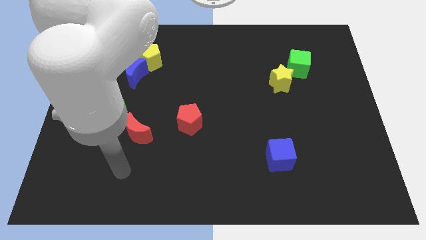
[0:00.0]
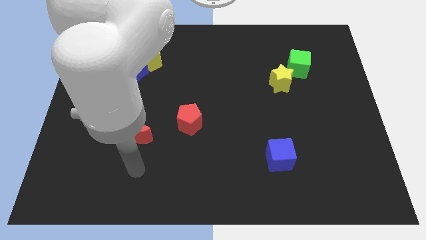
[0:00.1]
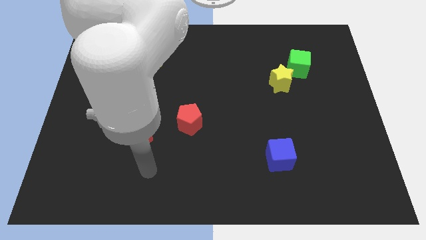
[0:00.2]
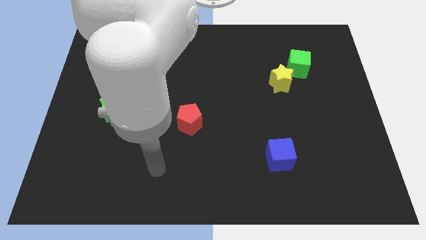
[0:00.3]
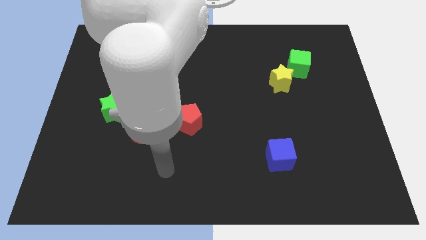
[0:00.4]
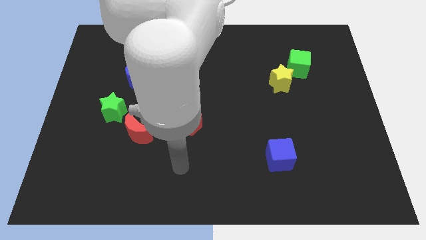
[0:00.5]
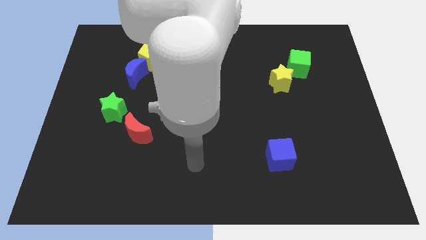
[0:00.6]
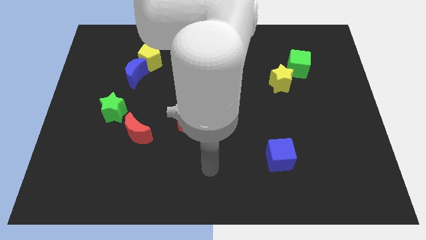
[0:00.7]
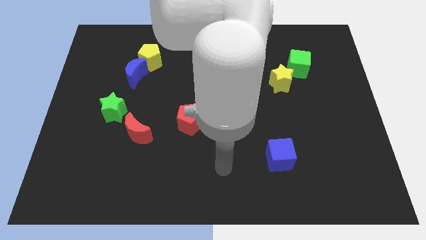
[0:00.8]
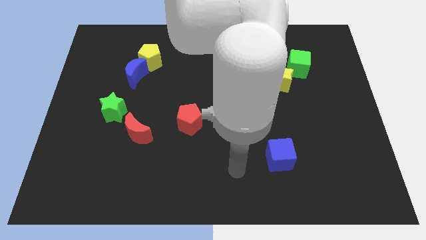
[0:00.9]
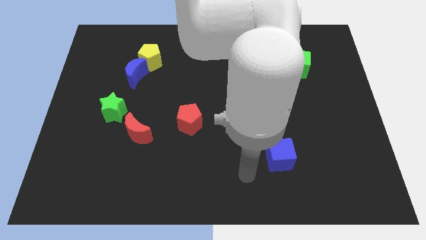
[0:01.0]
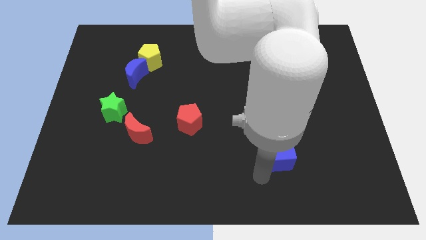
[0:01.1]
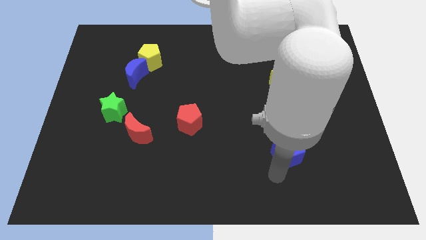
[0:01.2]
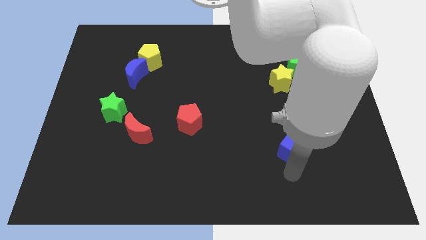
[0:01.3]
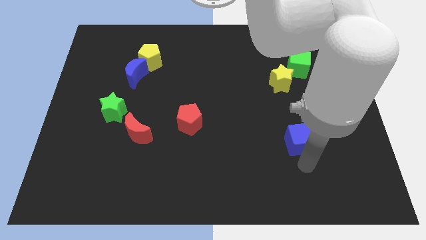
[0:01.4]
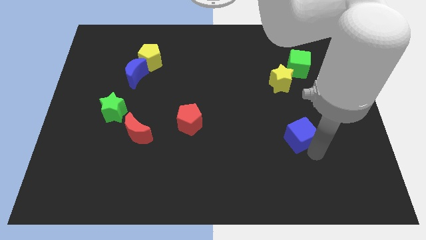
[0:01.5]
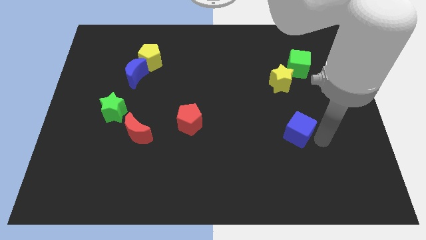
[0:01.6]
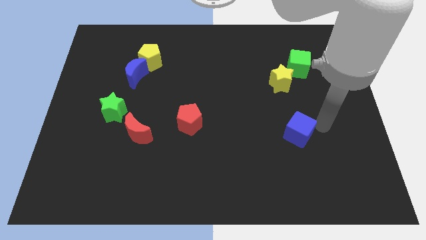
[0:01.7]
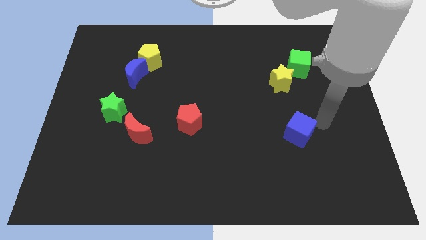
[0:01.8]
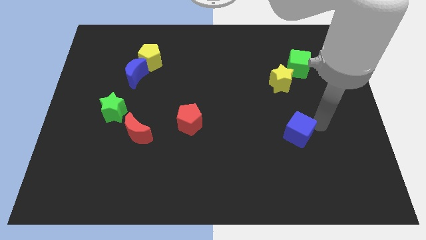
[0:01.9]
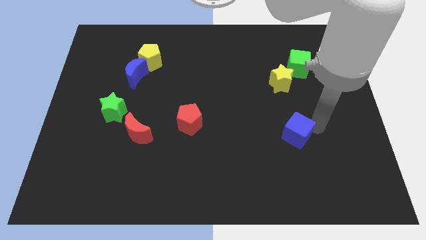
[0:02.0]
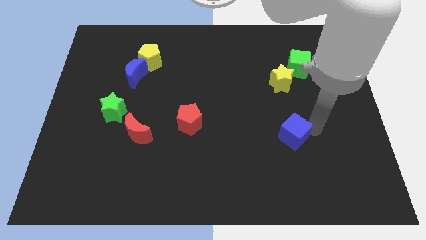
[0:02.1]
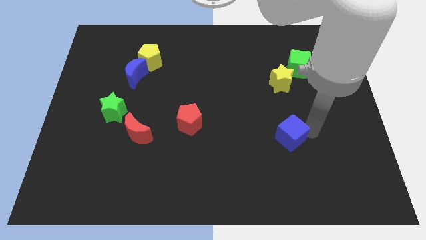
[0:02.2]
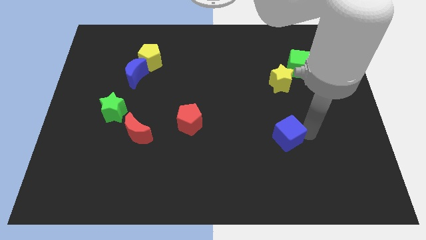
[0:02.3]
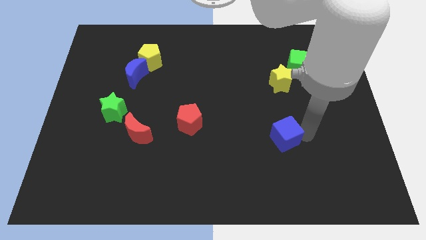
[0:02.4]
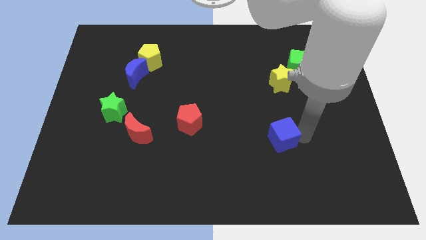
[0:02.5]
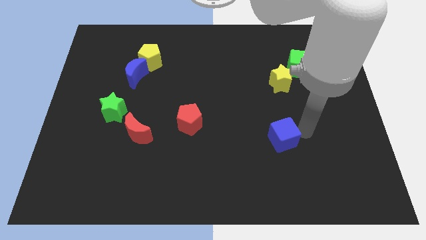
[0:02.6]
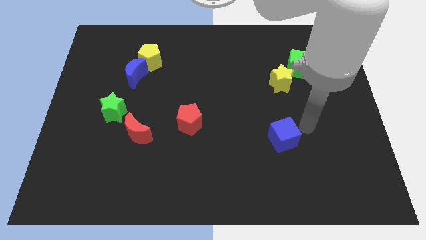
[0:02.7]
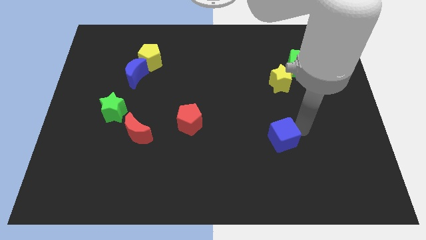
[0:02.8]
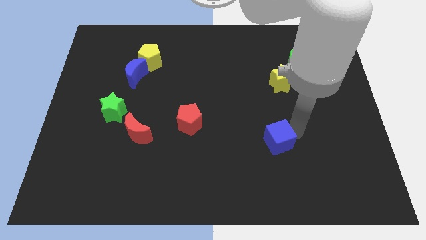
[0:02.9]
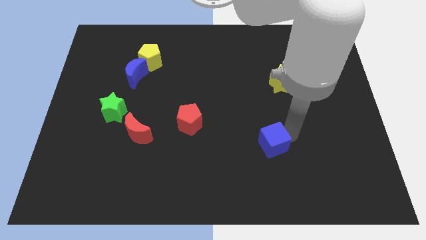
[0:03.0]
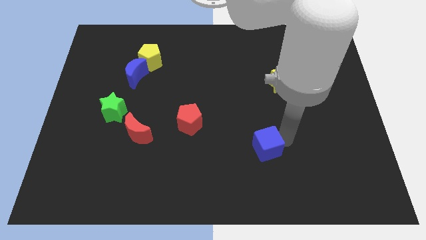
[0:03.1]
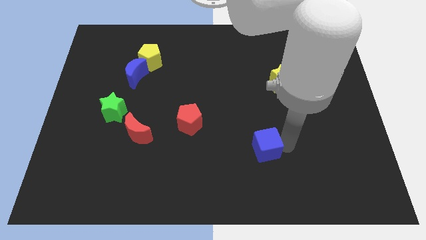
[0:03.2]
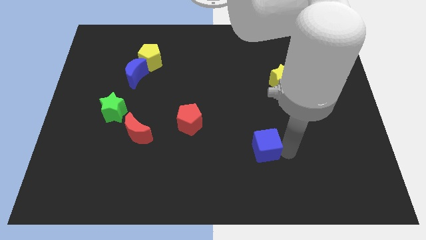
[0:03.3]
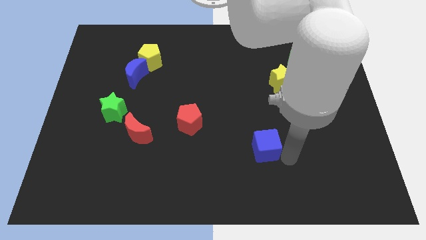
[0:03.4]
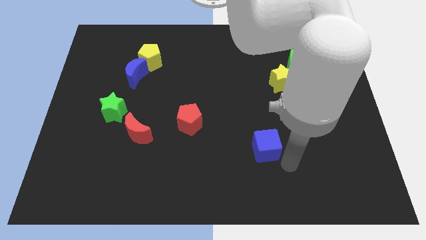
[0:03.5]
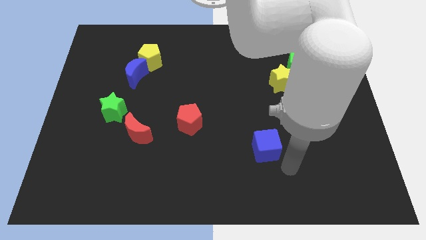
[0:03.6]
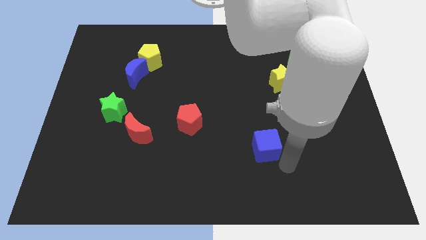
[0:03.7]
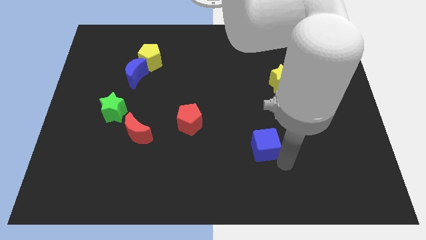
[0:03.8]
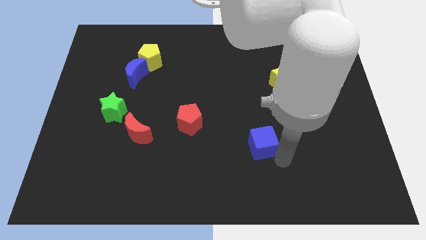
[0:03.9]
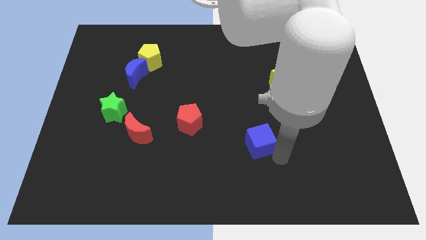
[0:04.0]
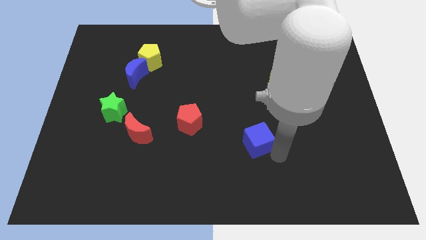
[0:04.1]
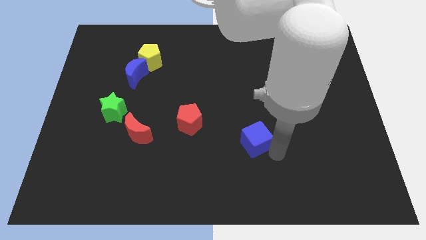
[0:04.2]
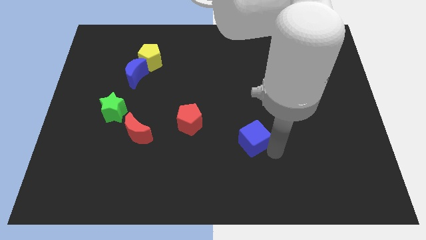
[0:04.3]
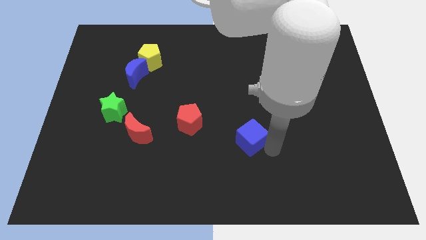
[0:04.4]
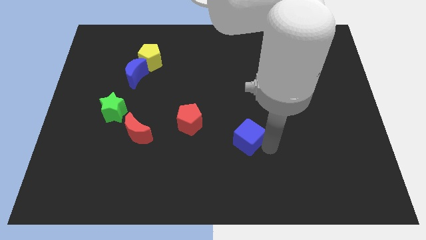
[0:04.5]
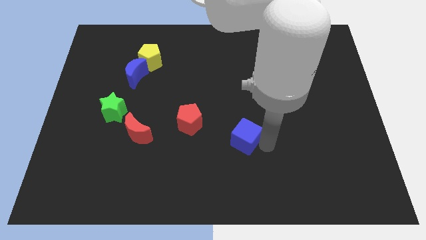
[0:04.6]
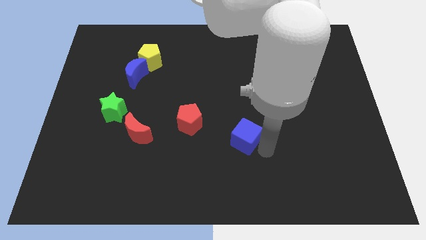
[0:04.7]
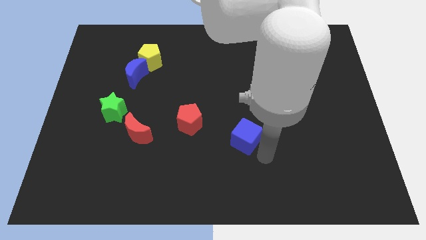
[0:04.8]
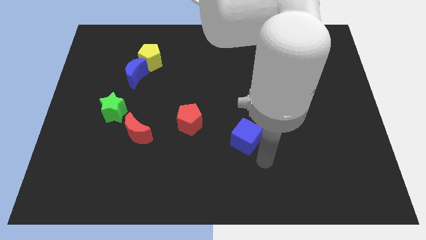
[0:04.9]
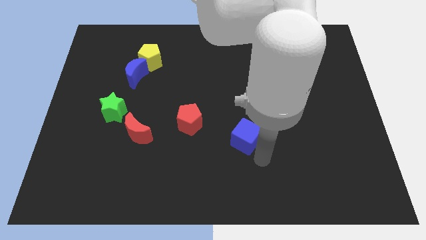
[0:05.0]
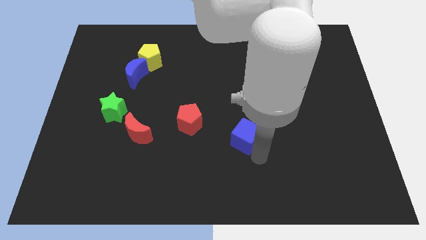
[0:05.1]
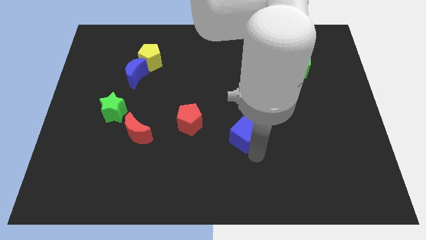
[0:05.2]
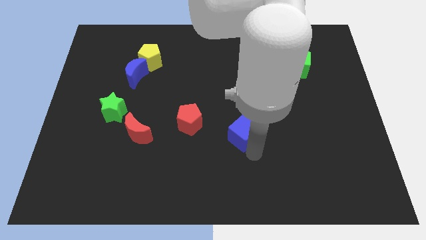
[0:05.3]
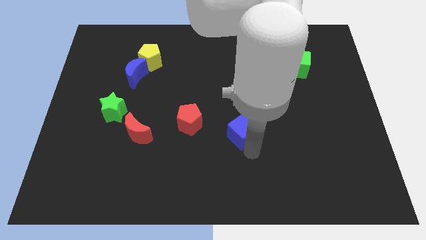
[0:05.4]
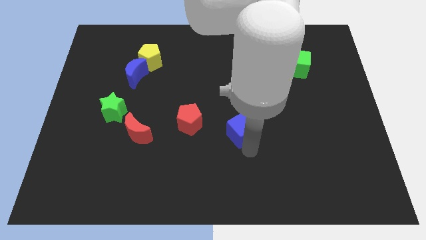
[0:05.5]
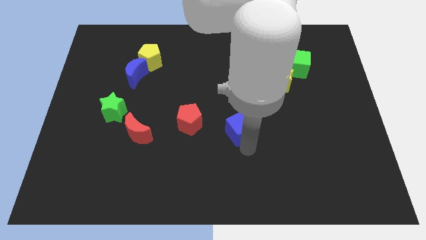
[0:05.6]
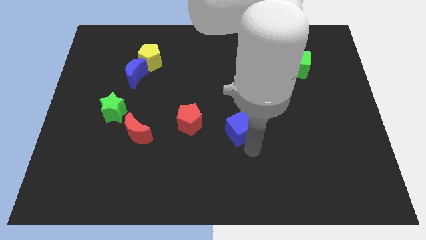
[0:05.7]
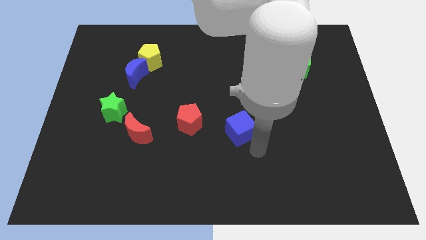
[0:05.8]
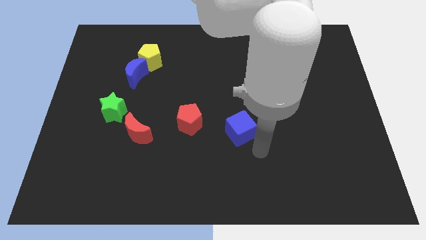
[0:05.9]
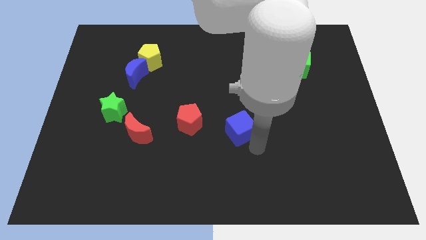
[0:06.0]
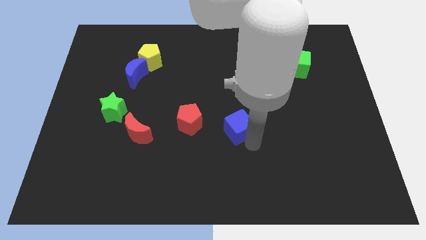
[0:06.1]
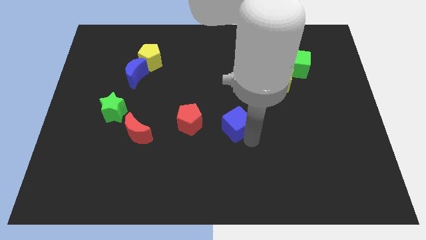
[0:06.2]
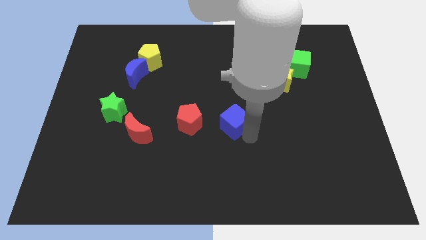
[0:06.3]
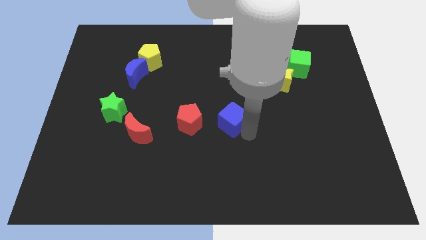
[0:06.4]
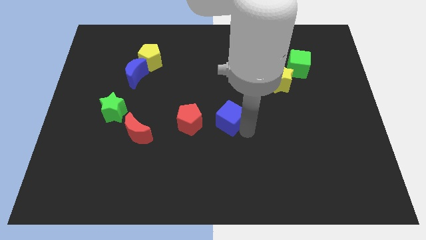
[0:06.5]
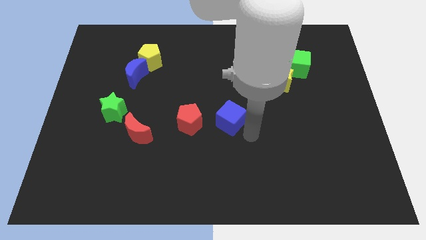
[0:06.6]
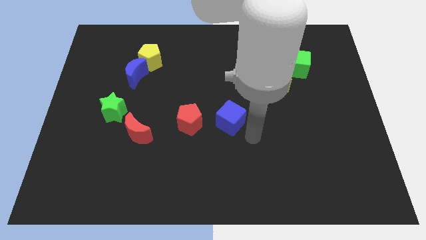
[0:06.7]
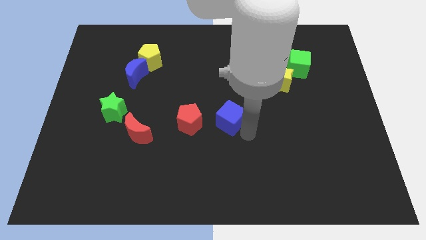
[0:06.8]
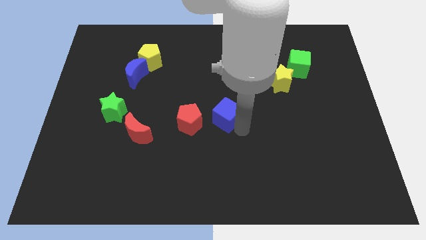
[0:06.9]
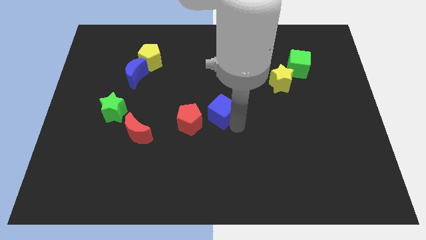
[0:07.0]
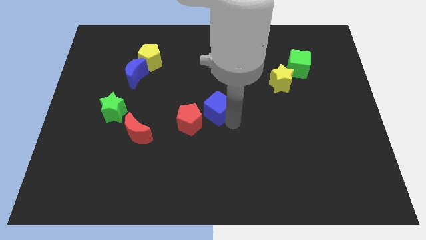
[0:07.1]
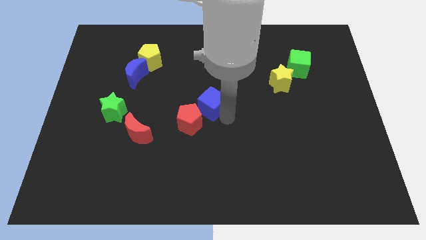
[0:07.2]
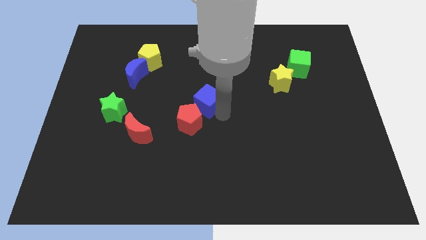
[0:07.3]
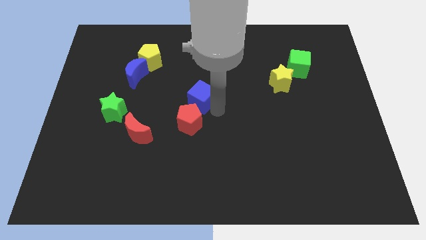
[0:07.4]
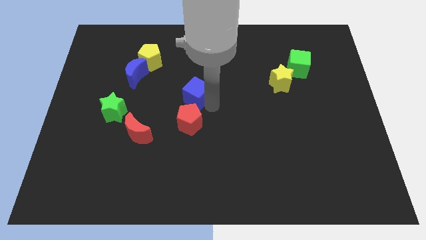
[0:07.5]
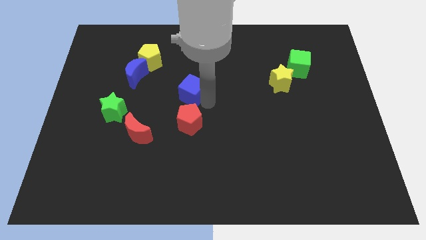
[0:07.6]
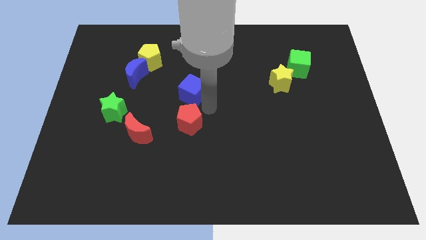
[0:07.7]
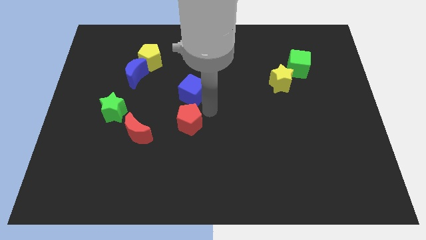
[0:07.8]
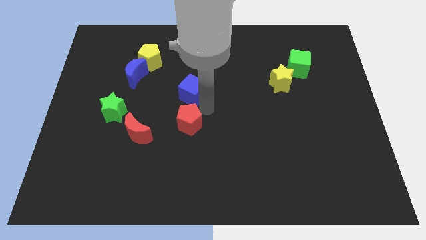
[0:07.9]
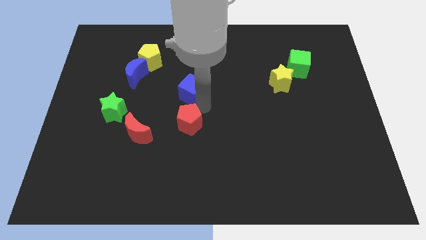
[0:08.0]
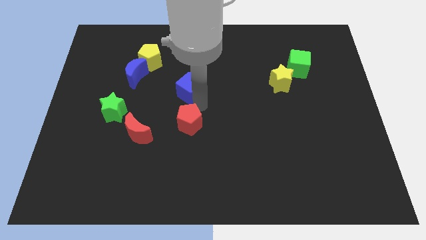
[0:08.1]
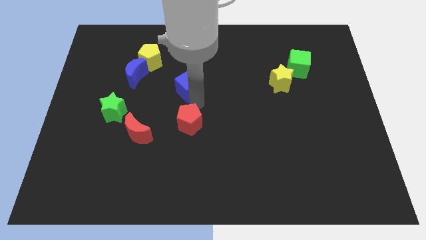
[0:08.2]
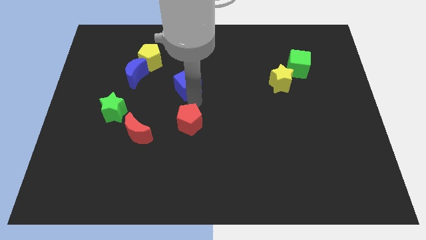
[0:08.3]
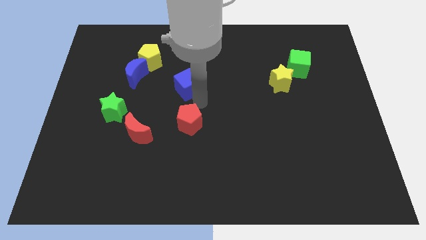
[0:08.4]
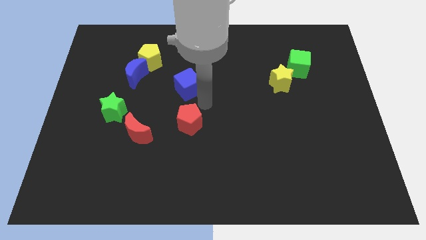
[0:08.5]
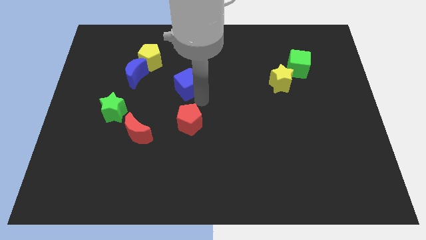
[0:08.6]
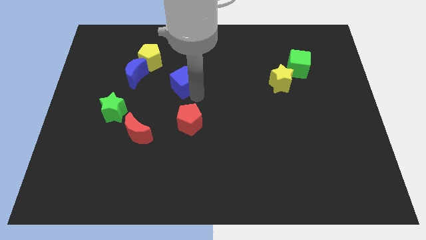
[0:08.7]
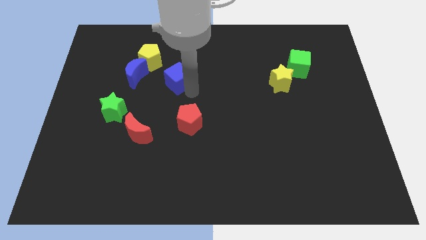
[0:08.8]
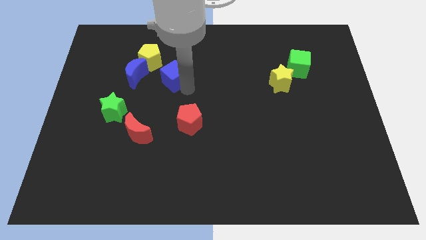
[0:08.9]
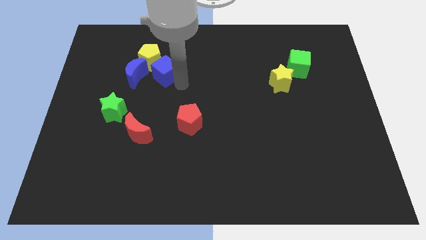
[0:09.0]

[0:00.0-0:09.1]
move the blue cube close to the yellow pentagon
